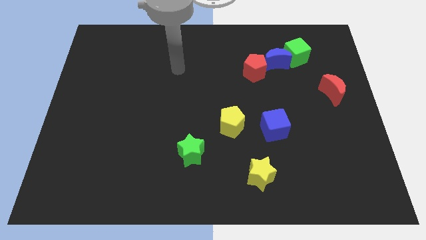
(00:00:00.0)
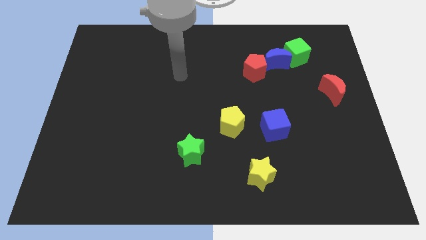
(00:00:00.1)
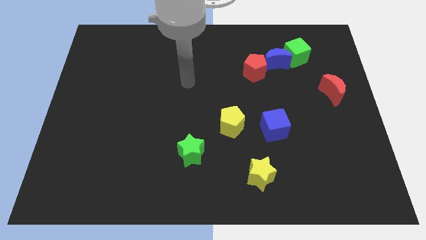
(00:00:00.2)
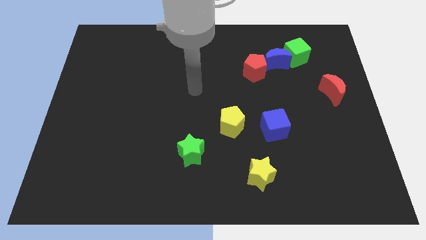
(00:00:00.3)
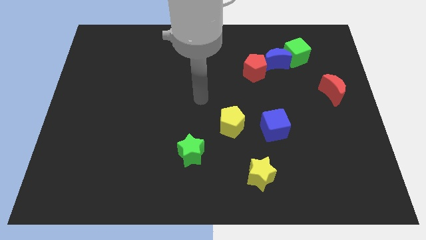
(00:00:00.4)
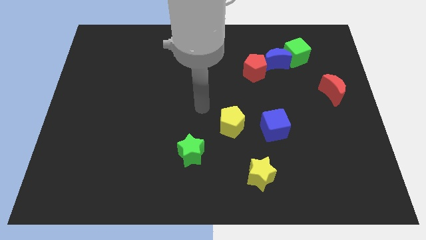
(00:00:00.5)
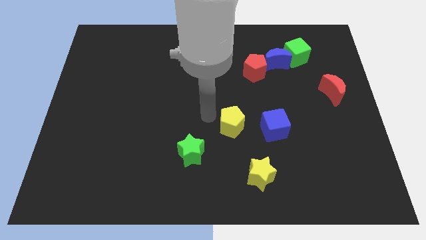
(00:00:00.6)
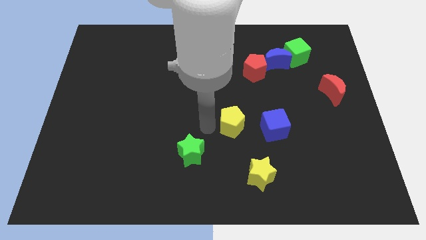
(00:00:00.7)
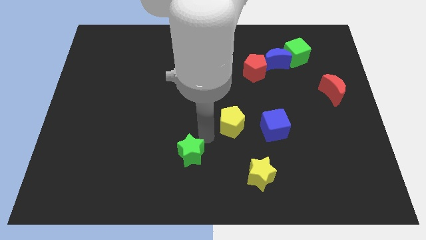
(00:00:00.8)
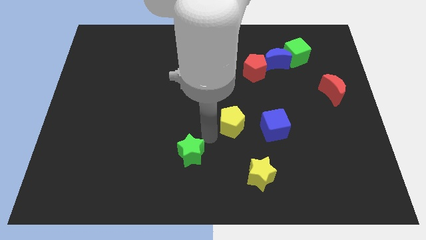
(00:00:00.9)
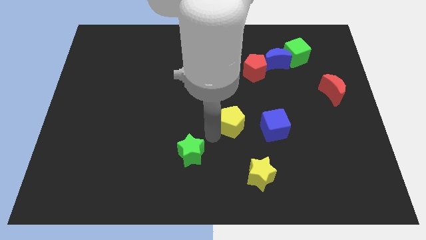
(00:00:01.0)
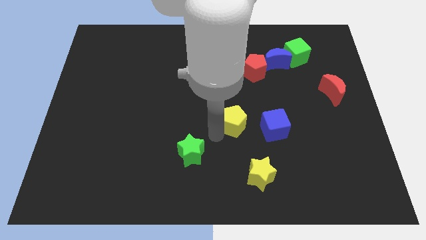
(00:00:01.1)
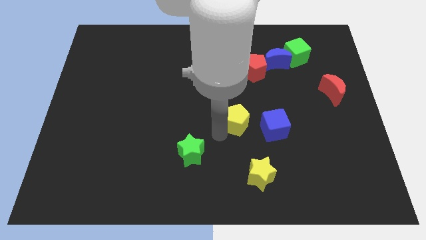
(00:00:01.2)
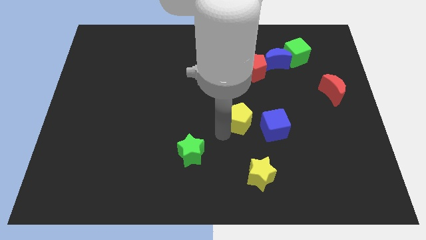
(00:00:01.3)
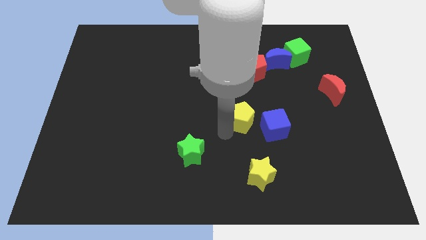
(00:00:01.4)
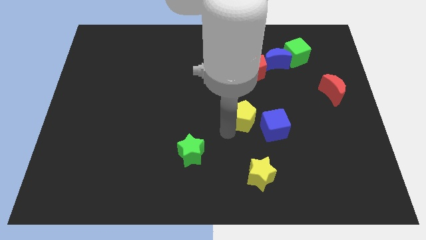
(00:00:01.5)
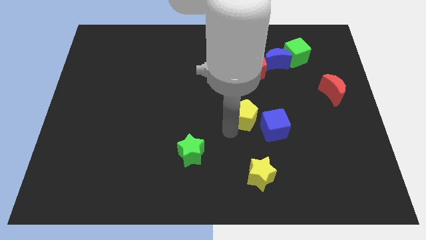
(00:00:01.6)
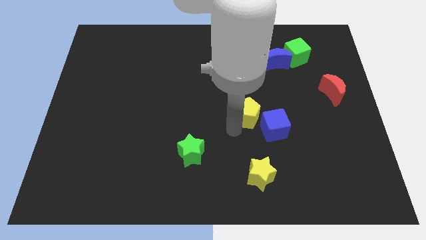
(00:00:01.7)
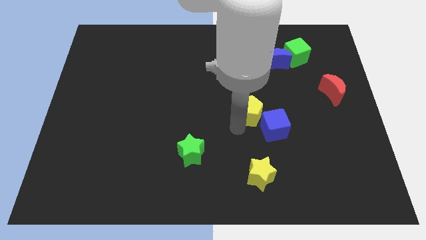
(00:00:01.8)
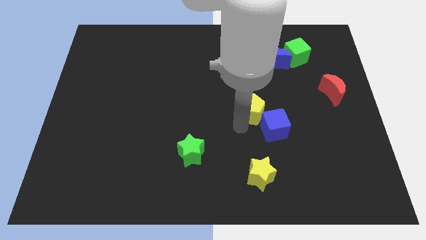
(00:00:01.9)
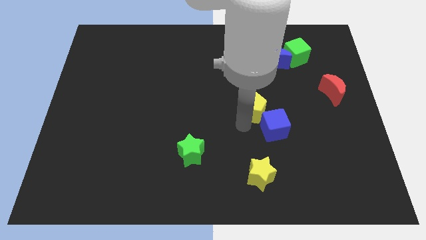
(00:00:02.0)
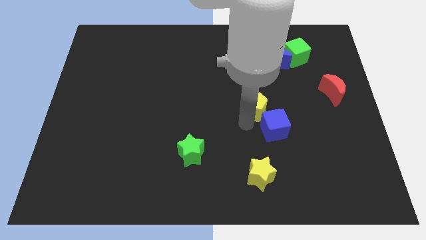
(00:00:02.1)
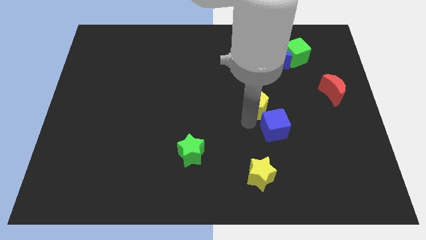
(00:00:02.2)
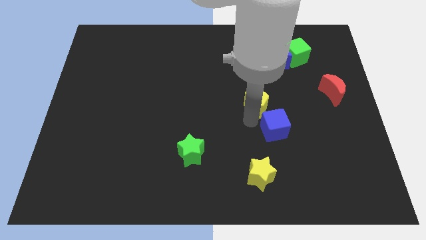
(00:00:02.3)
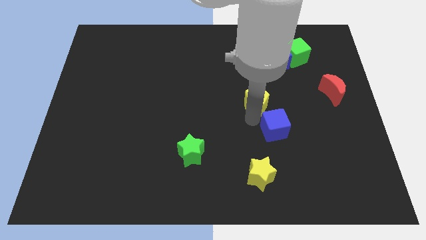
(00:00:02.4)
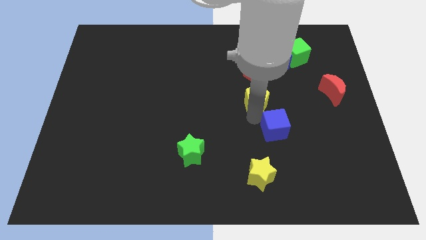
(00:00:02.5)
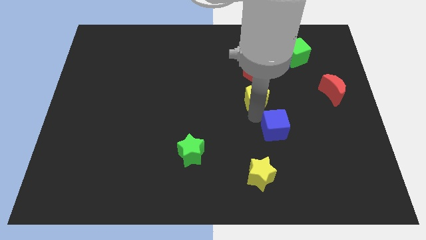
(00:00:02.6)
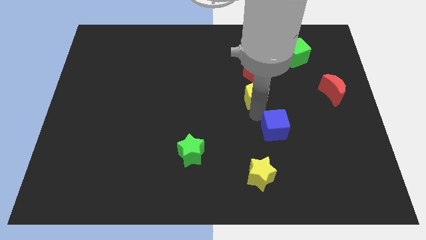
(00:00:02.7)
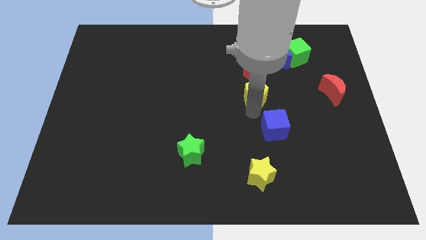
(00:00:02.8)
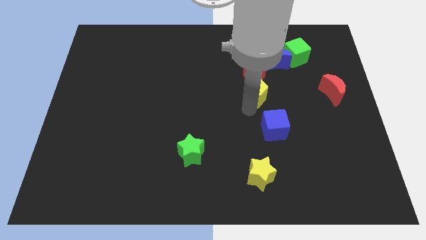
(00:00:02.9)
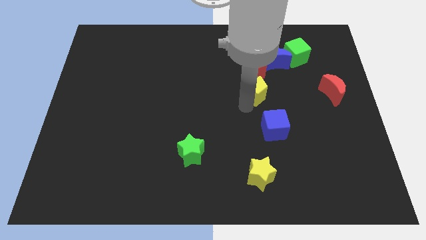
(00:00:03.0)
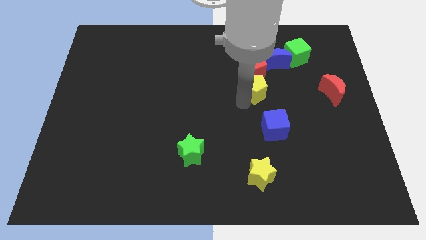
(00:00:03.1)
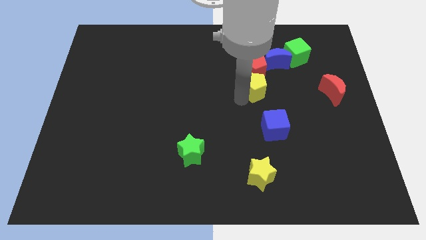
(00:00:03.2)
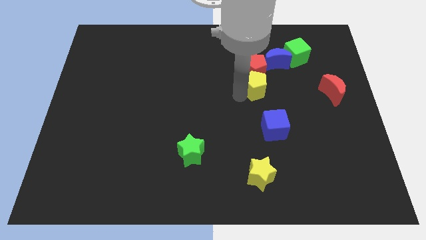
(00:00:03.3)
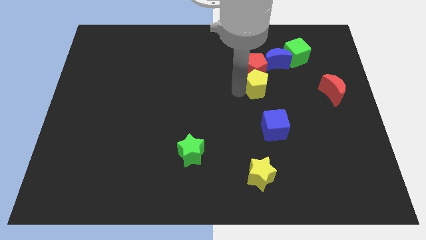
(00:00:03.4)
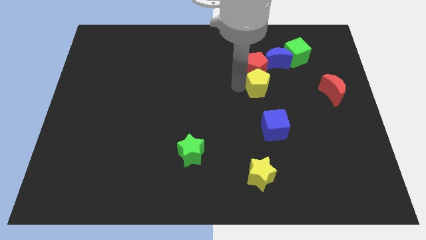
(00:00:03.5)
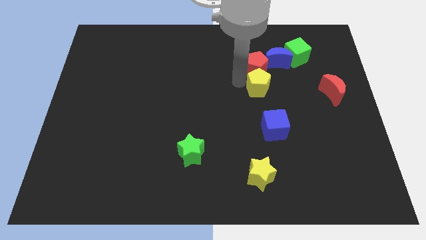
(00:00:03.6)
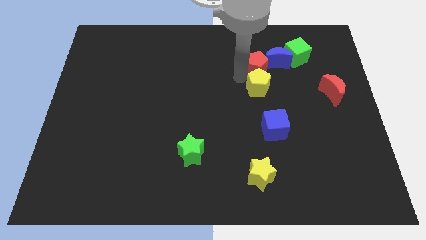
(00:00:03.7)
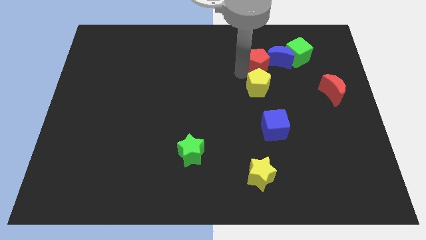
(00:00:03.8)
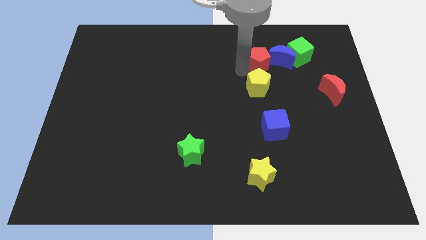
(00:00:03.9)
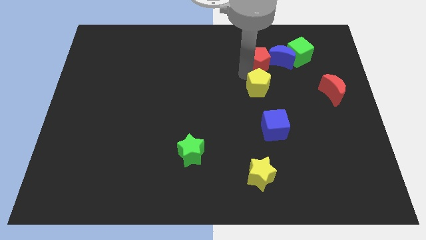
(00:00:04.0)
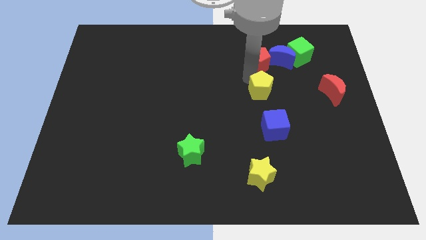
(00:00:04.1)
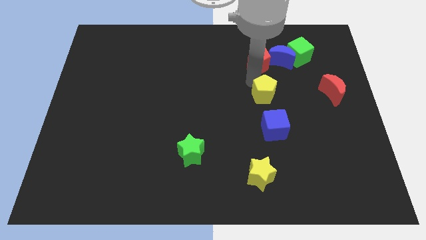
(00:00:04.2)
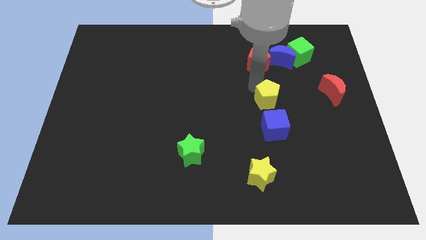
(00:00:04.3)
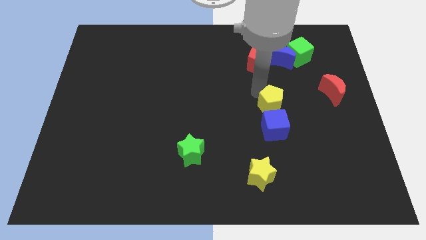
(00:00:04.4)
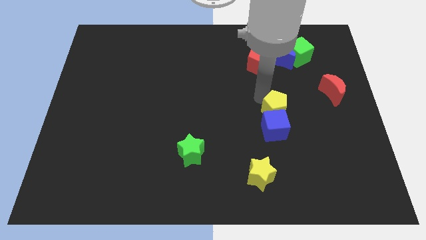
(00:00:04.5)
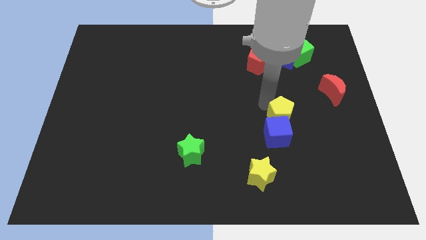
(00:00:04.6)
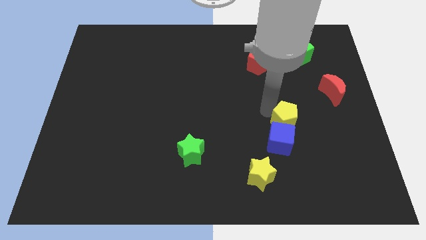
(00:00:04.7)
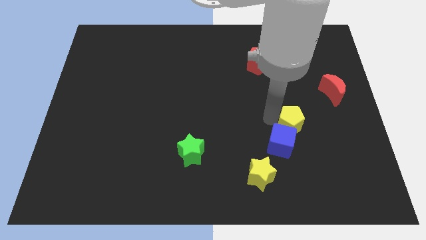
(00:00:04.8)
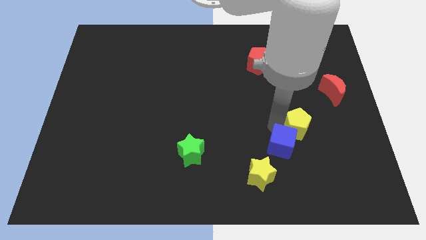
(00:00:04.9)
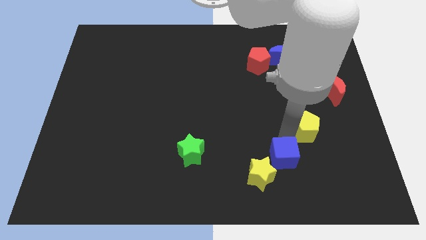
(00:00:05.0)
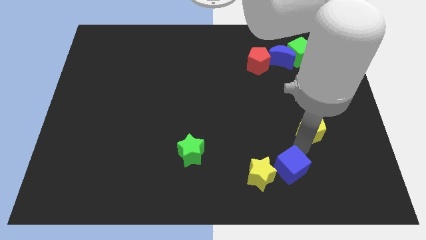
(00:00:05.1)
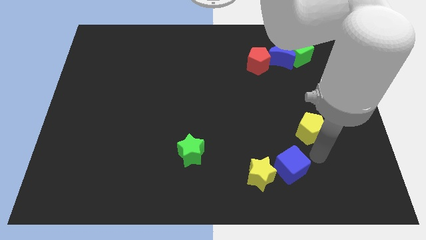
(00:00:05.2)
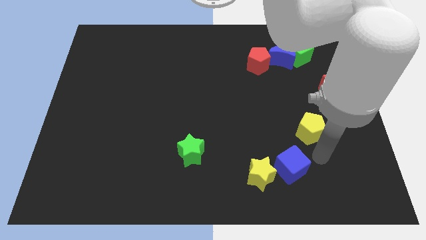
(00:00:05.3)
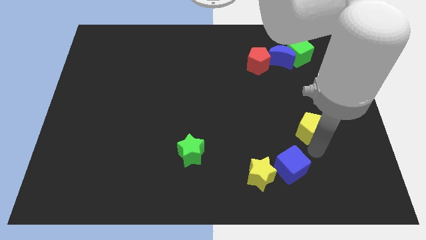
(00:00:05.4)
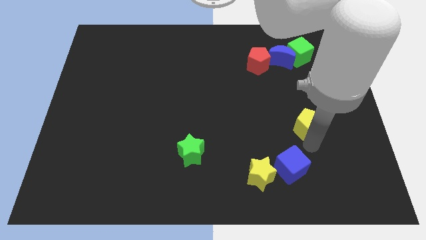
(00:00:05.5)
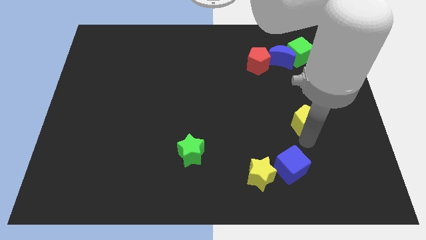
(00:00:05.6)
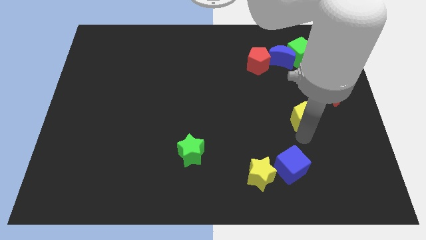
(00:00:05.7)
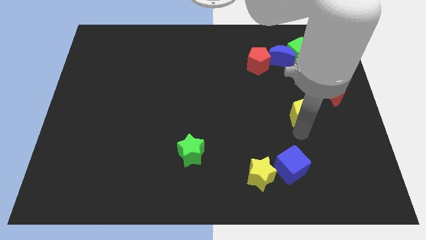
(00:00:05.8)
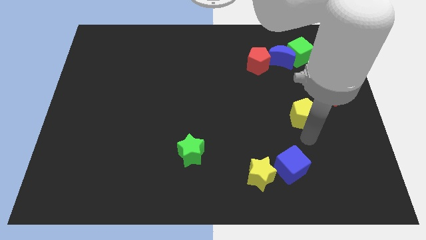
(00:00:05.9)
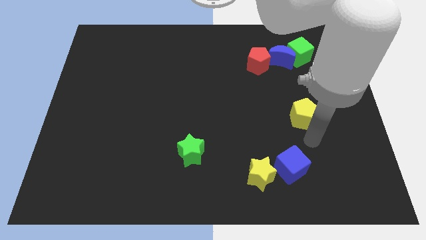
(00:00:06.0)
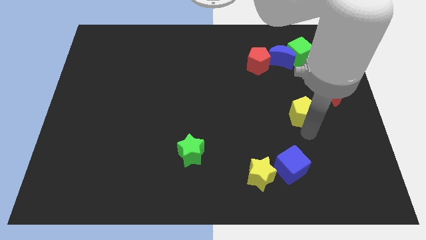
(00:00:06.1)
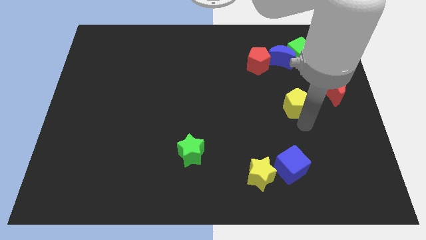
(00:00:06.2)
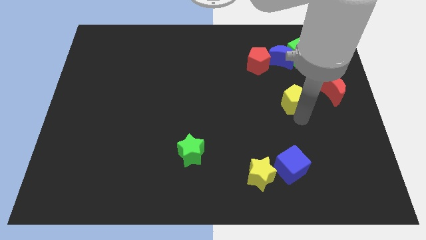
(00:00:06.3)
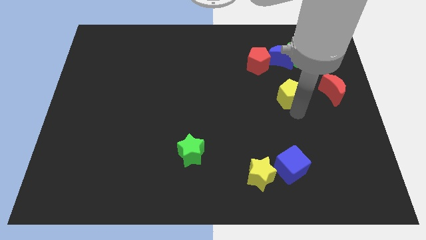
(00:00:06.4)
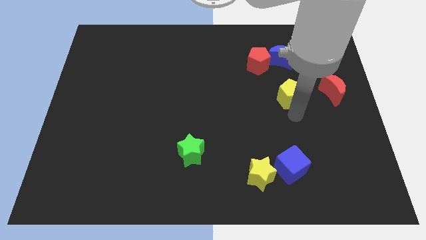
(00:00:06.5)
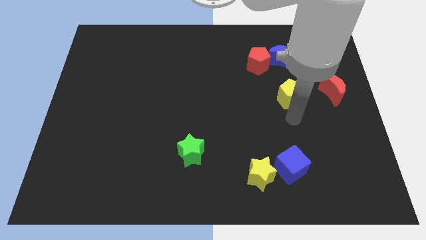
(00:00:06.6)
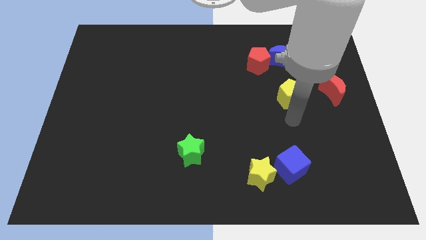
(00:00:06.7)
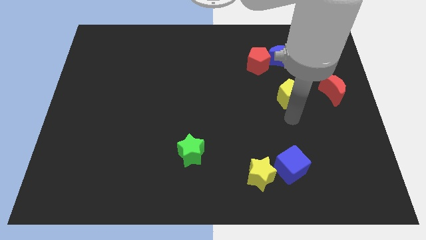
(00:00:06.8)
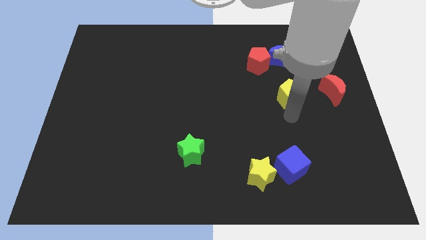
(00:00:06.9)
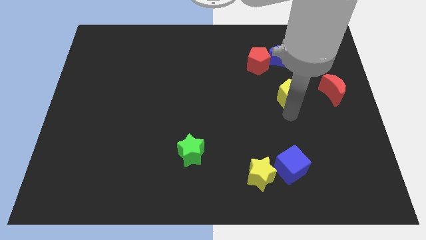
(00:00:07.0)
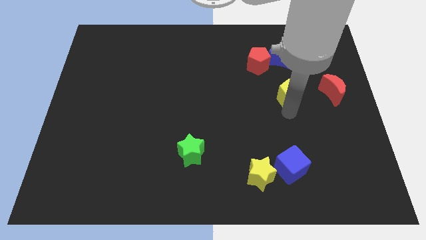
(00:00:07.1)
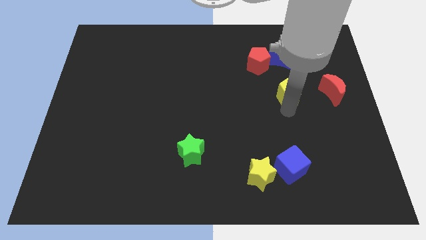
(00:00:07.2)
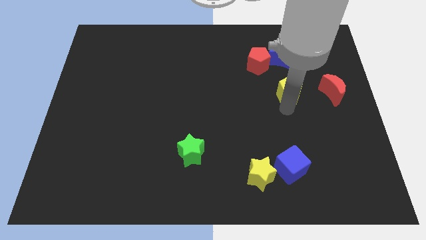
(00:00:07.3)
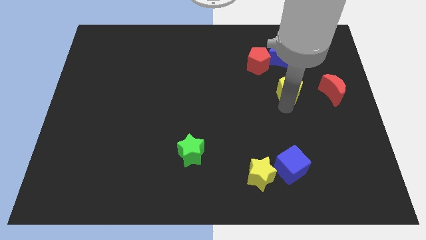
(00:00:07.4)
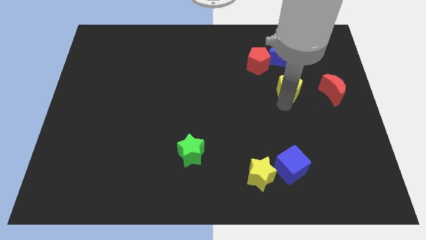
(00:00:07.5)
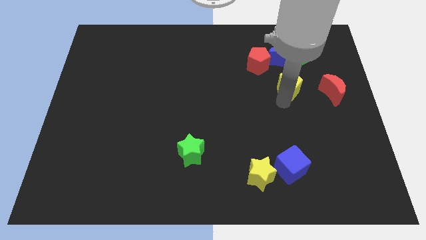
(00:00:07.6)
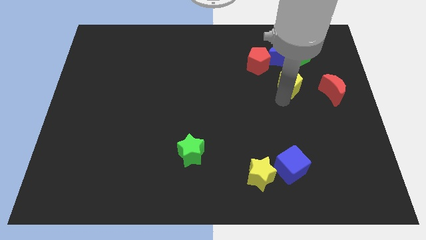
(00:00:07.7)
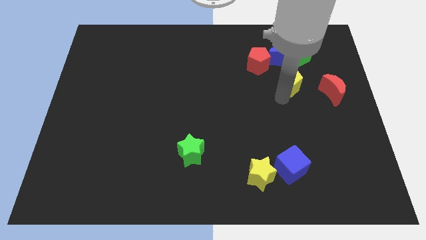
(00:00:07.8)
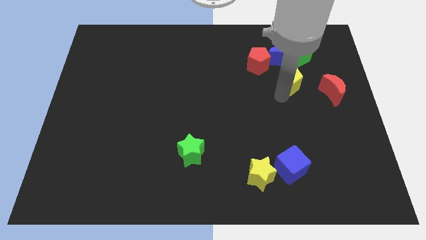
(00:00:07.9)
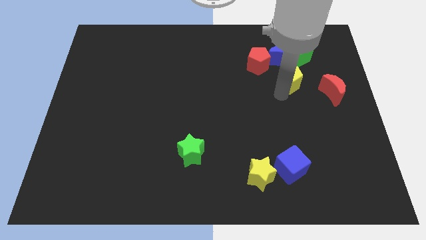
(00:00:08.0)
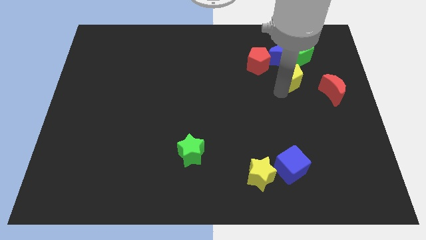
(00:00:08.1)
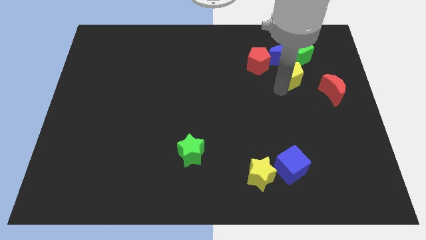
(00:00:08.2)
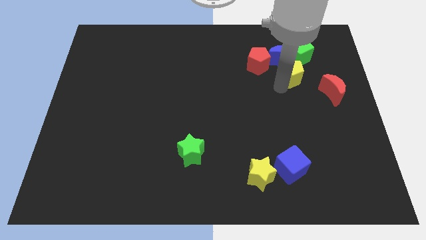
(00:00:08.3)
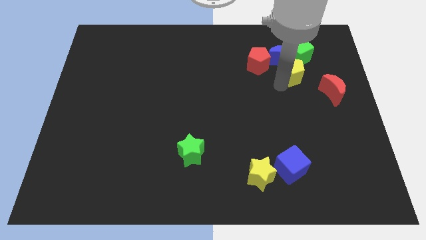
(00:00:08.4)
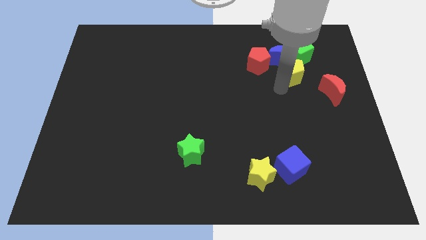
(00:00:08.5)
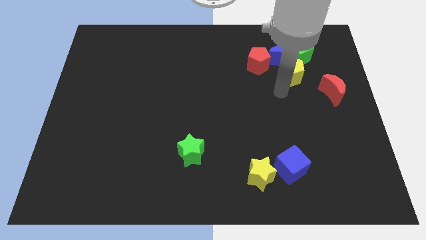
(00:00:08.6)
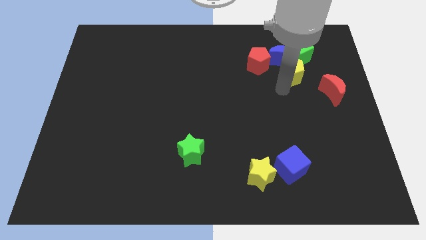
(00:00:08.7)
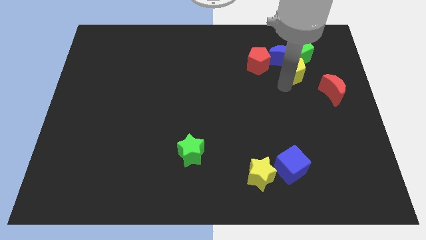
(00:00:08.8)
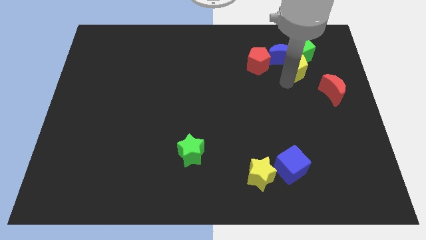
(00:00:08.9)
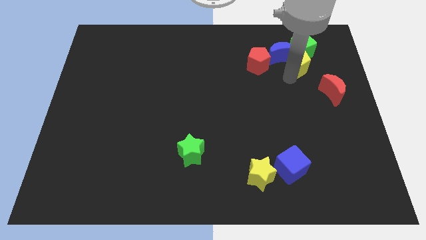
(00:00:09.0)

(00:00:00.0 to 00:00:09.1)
move the yellow pentagon next to the green cube
